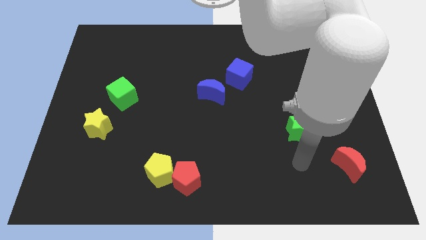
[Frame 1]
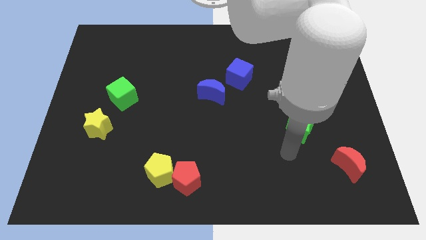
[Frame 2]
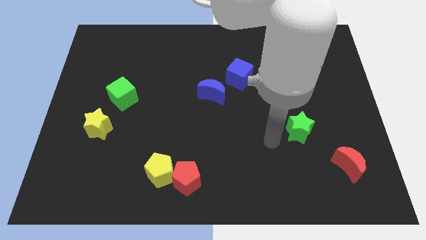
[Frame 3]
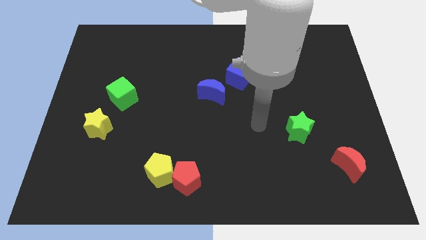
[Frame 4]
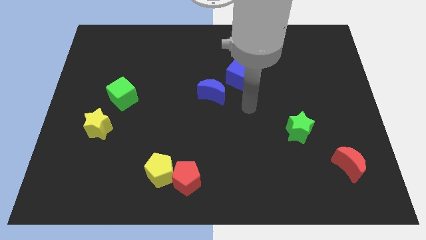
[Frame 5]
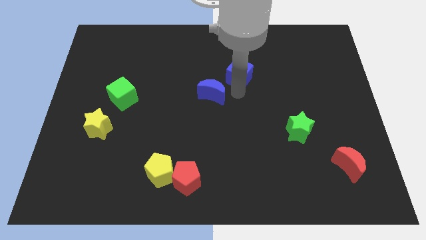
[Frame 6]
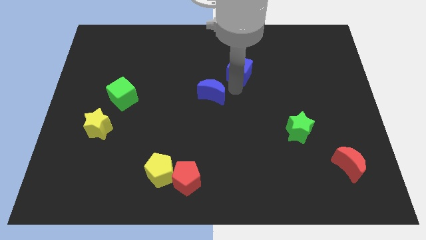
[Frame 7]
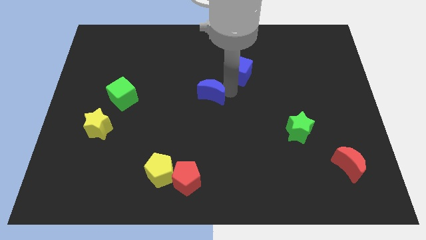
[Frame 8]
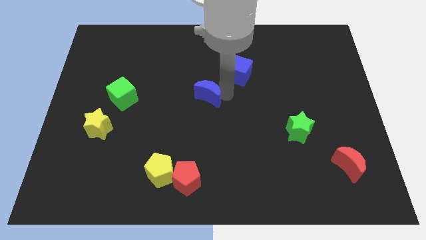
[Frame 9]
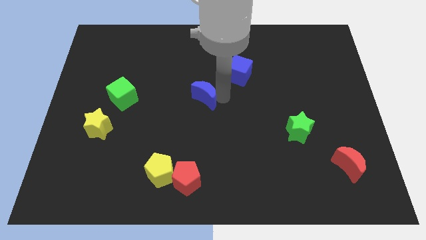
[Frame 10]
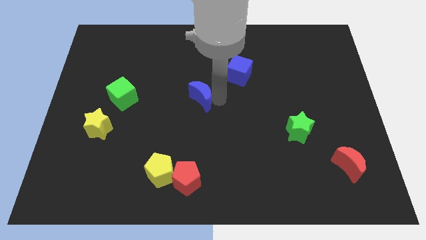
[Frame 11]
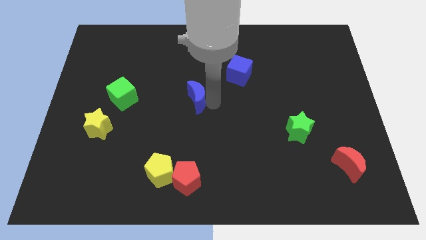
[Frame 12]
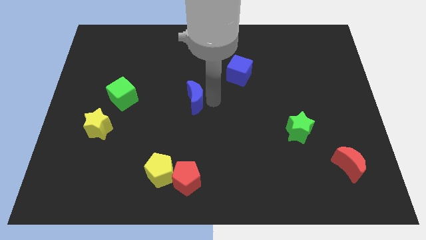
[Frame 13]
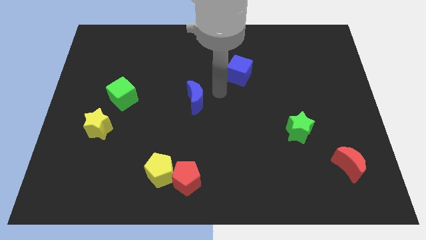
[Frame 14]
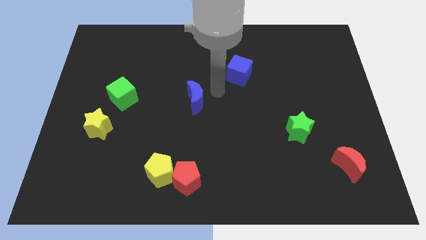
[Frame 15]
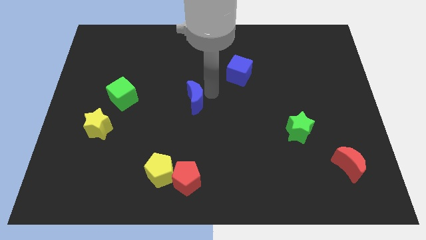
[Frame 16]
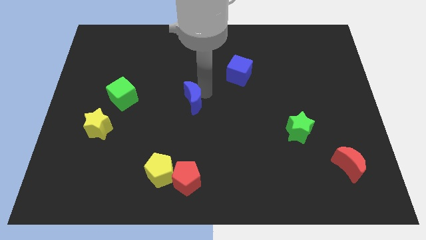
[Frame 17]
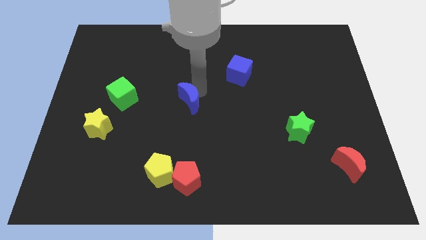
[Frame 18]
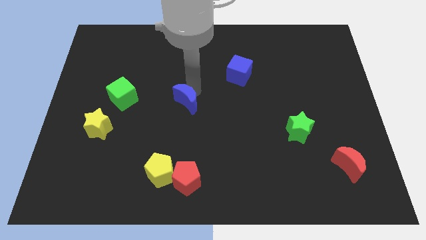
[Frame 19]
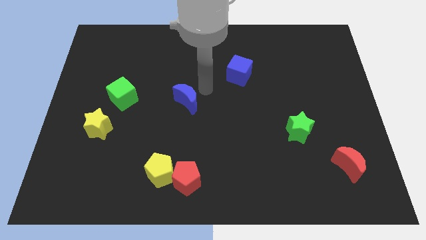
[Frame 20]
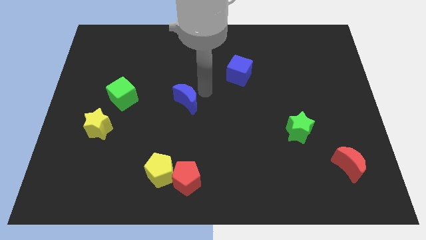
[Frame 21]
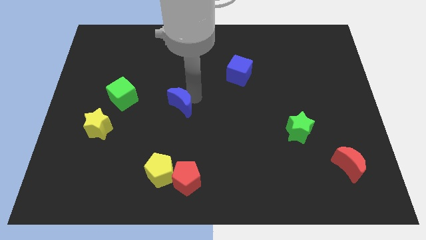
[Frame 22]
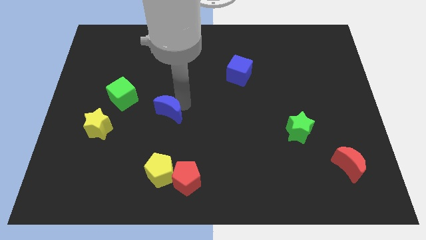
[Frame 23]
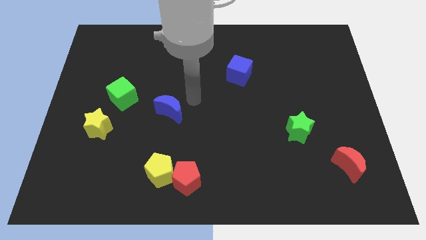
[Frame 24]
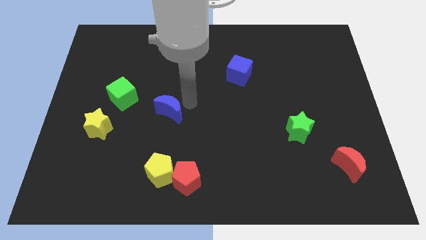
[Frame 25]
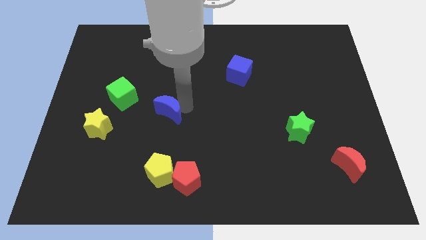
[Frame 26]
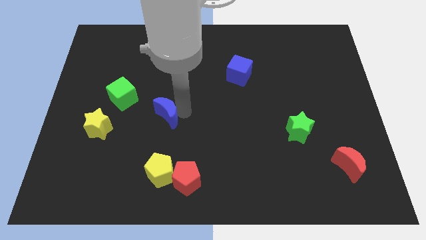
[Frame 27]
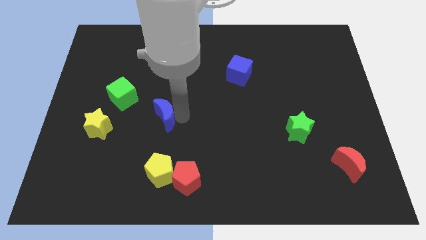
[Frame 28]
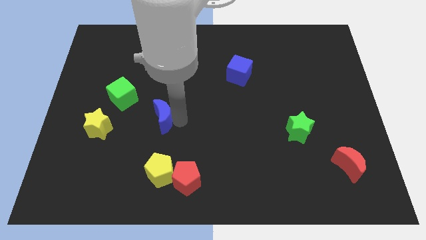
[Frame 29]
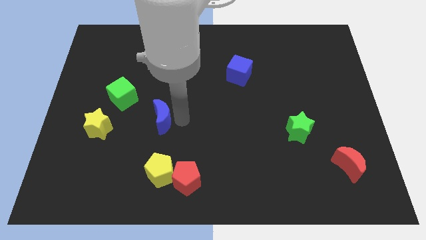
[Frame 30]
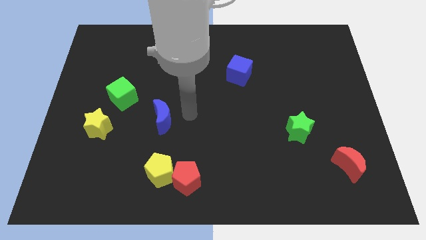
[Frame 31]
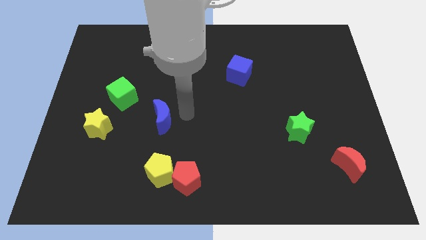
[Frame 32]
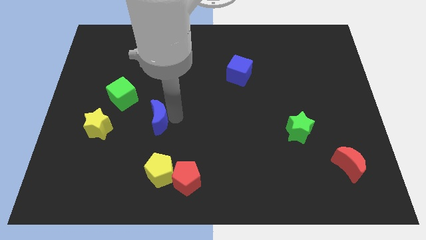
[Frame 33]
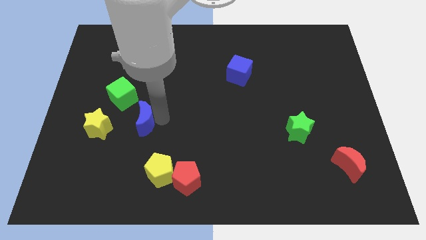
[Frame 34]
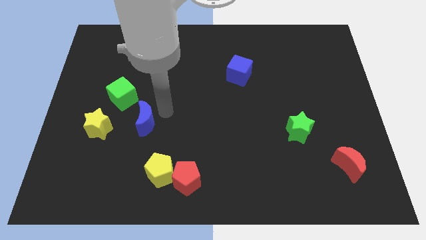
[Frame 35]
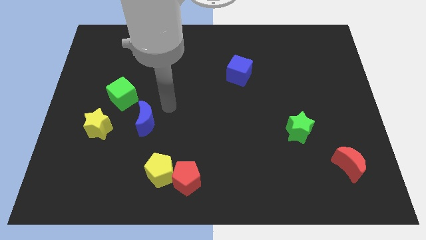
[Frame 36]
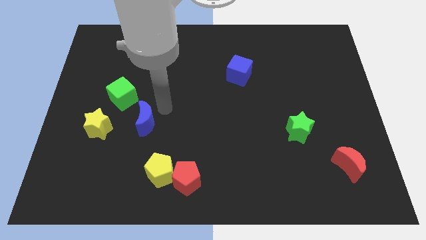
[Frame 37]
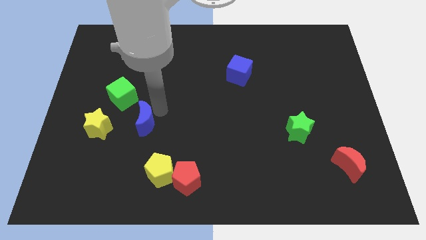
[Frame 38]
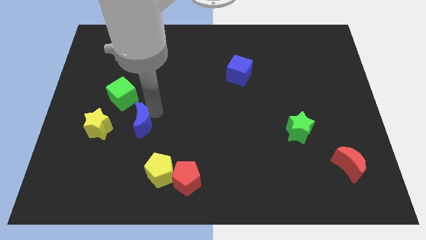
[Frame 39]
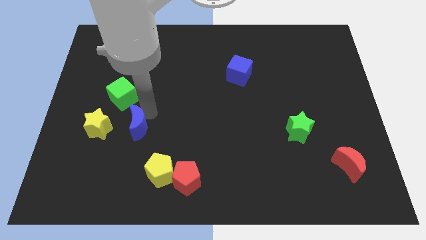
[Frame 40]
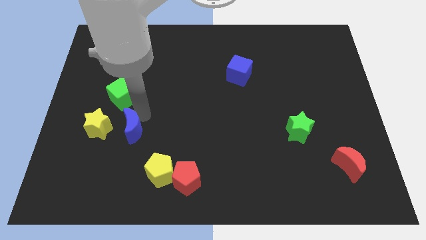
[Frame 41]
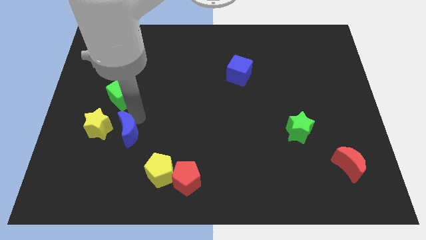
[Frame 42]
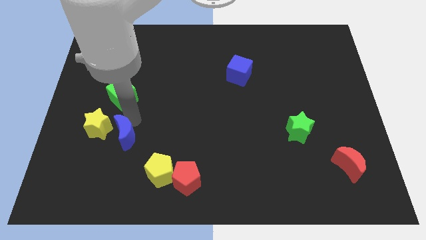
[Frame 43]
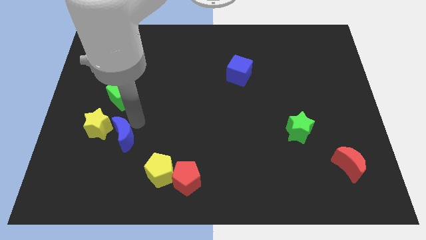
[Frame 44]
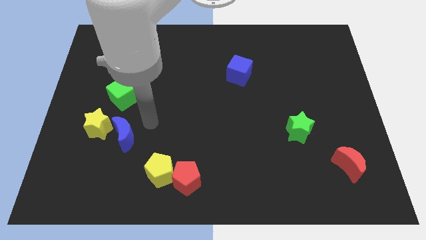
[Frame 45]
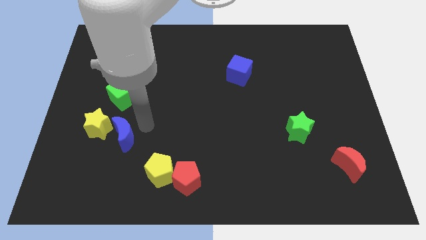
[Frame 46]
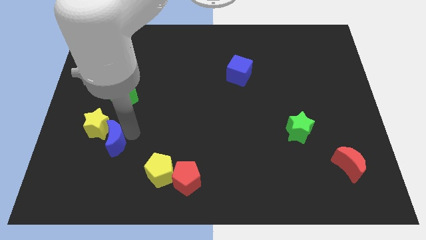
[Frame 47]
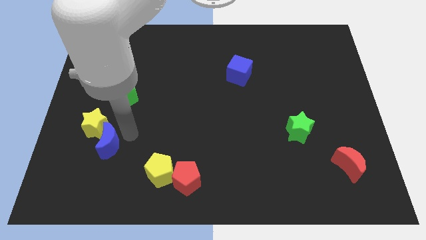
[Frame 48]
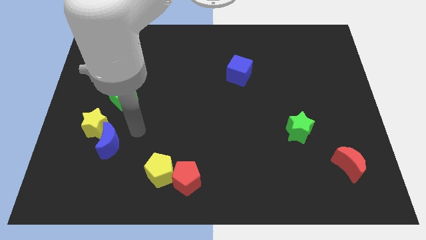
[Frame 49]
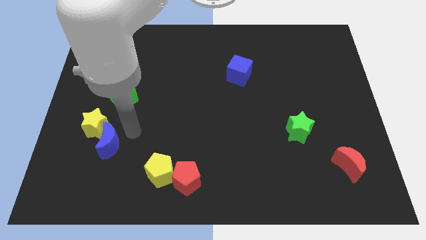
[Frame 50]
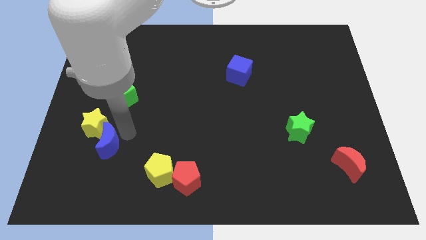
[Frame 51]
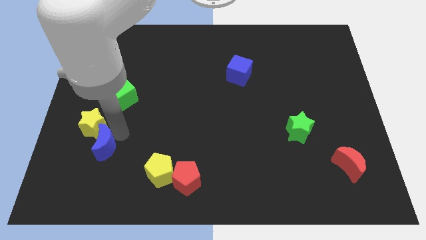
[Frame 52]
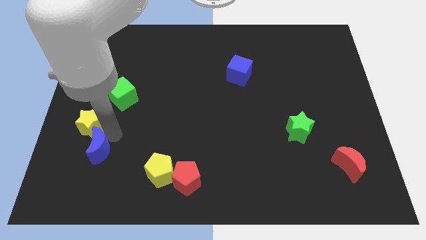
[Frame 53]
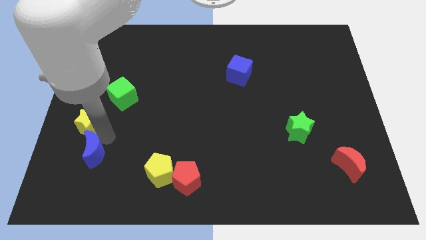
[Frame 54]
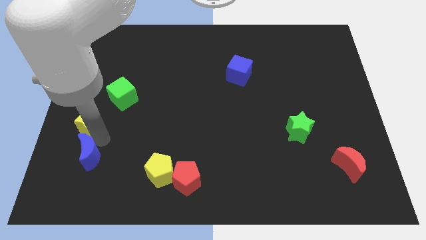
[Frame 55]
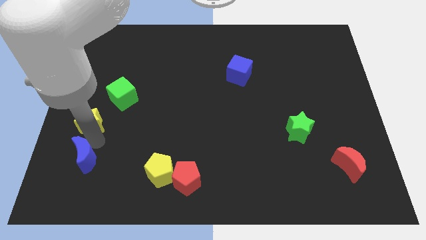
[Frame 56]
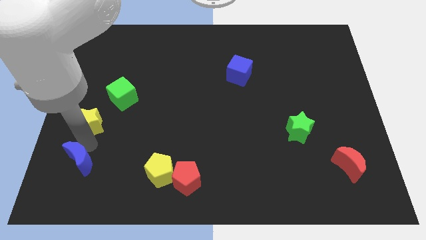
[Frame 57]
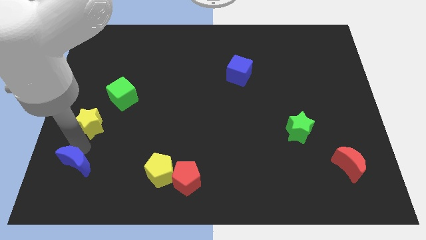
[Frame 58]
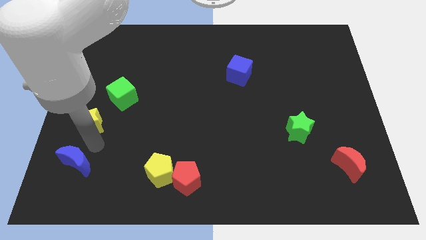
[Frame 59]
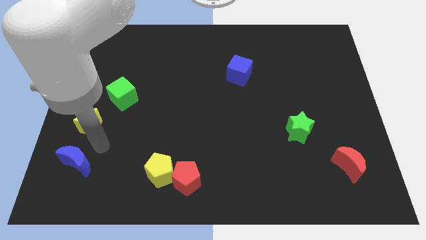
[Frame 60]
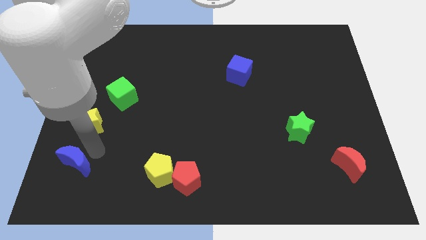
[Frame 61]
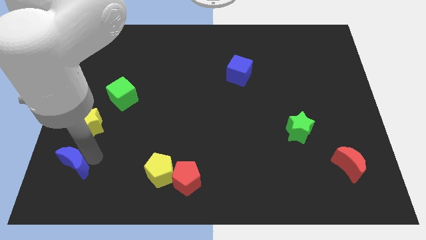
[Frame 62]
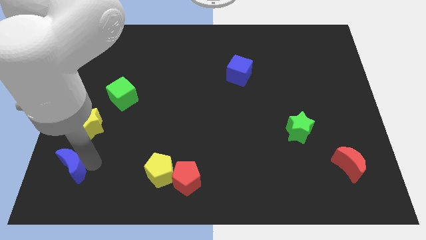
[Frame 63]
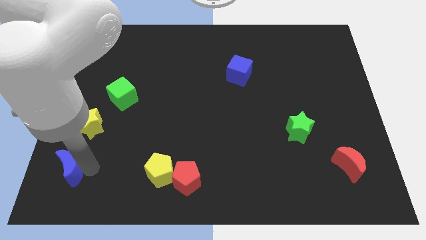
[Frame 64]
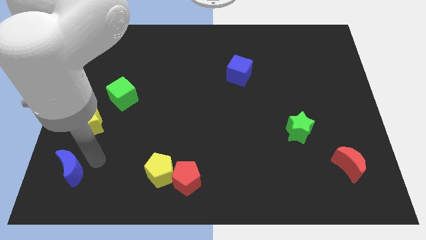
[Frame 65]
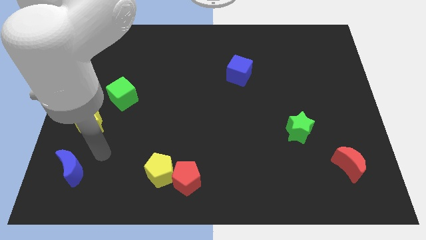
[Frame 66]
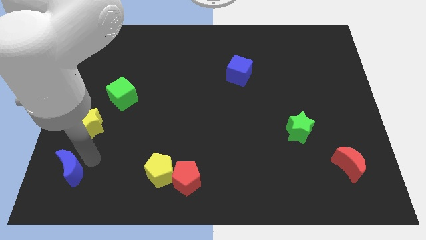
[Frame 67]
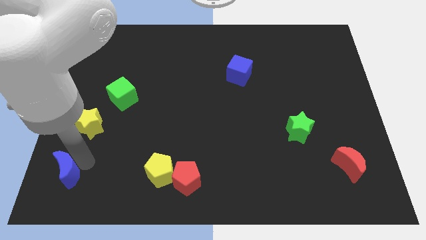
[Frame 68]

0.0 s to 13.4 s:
put the blue moon to the bottom left corner
